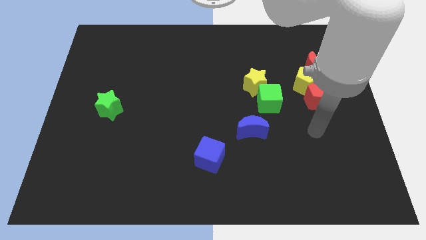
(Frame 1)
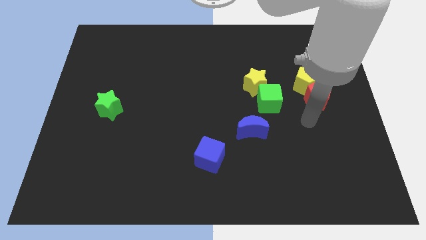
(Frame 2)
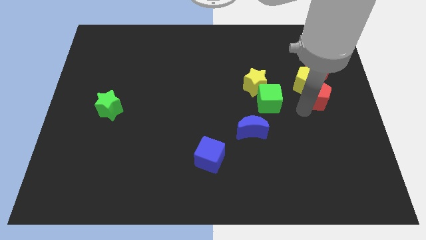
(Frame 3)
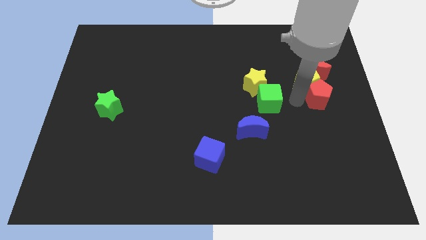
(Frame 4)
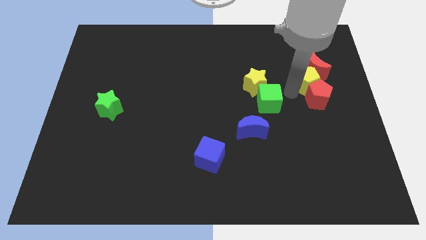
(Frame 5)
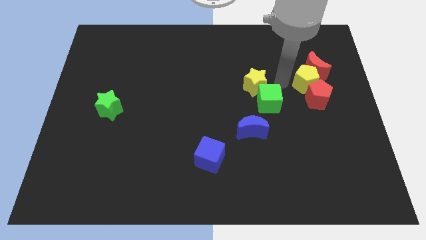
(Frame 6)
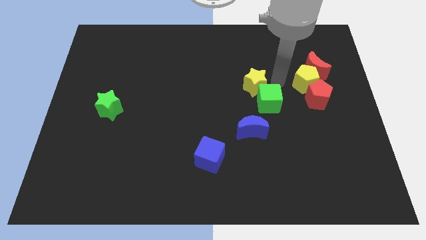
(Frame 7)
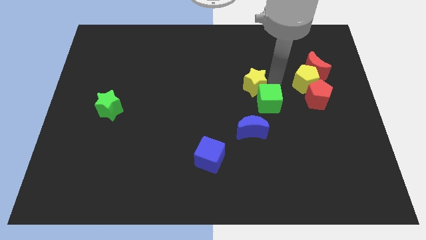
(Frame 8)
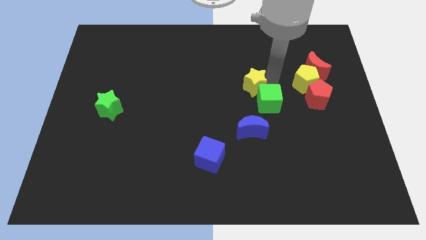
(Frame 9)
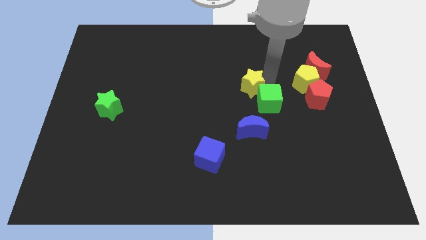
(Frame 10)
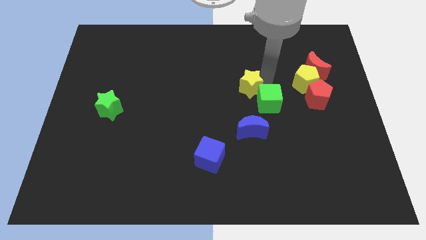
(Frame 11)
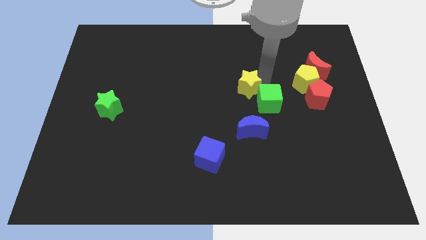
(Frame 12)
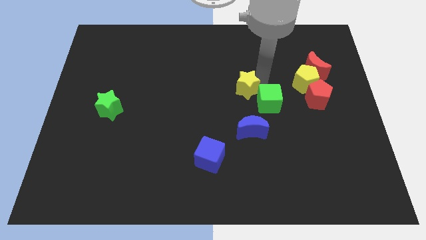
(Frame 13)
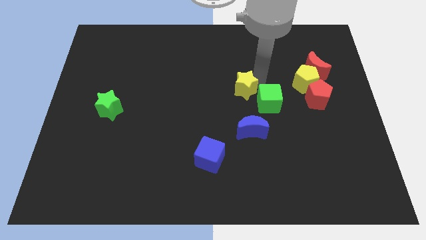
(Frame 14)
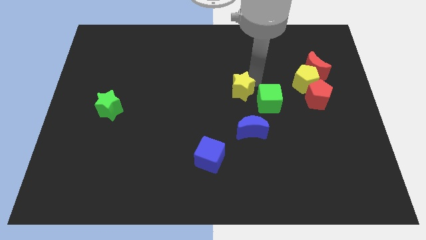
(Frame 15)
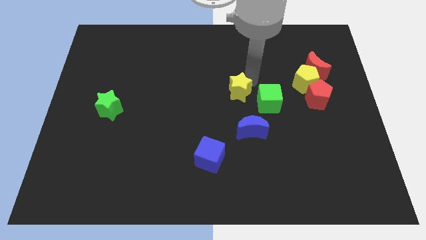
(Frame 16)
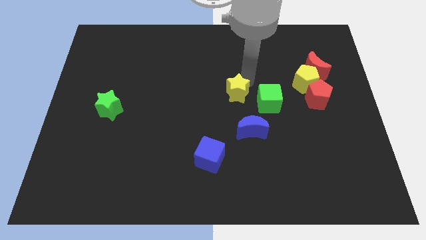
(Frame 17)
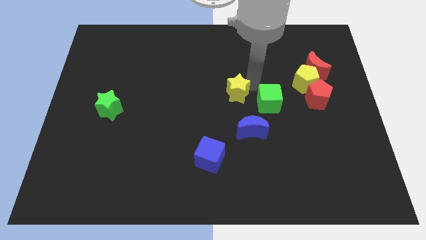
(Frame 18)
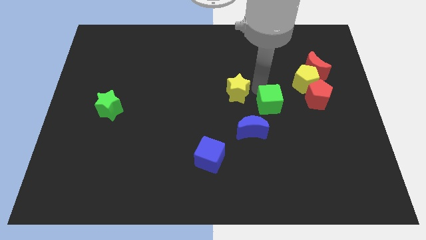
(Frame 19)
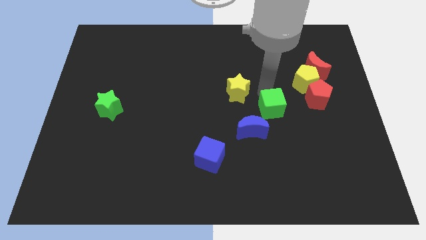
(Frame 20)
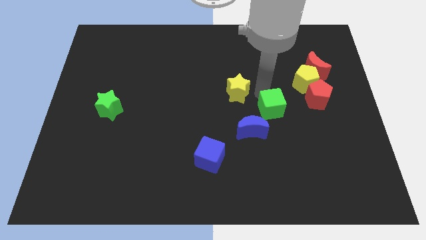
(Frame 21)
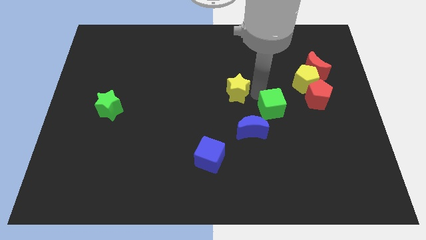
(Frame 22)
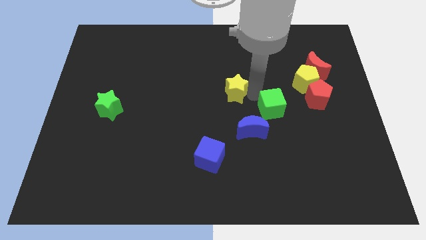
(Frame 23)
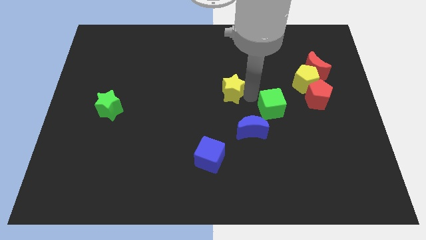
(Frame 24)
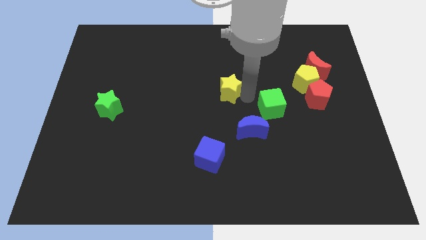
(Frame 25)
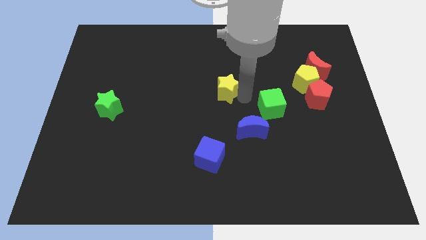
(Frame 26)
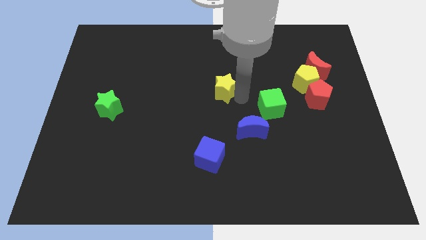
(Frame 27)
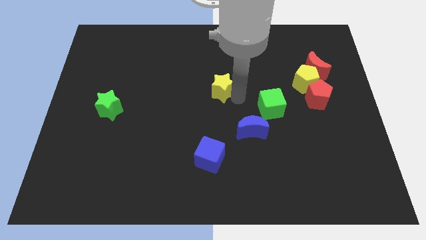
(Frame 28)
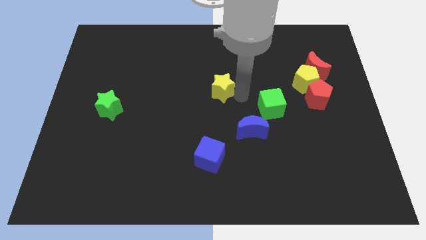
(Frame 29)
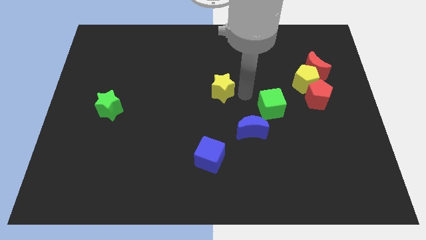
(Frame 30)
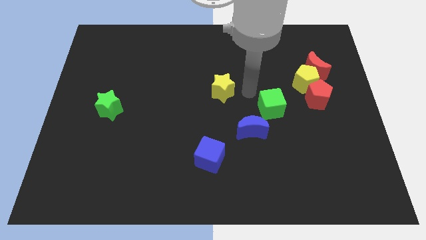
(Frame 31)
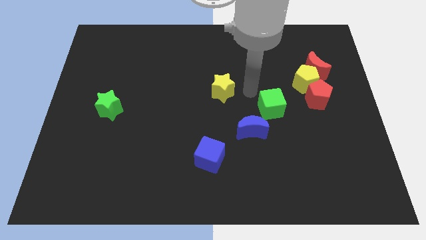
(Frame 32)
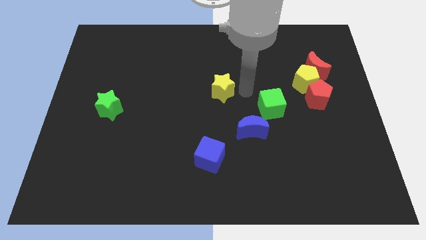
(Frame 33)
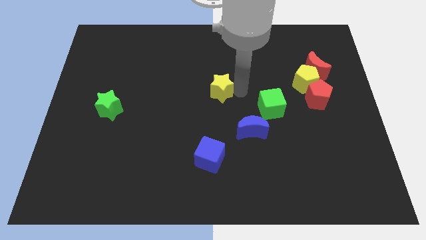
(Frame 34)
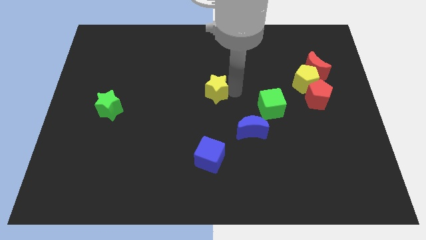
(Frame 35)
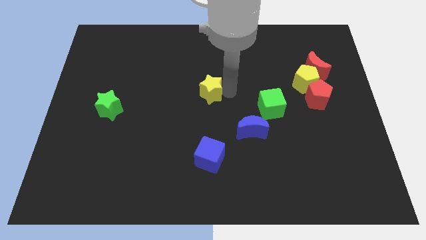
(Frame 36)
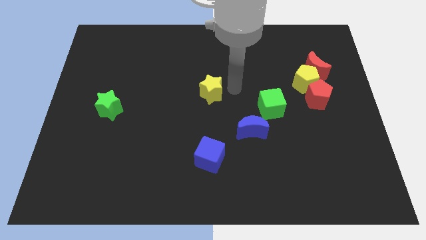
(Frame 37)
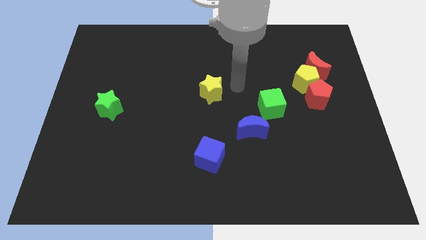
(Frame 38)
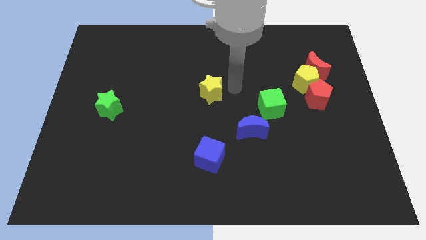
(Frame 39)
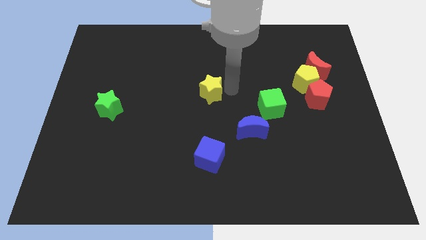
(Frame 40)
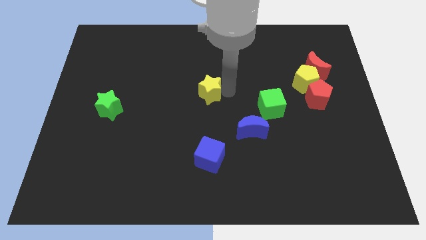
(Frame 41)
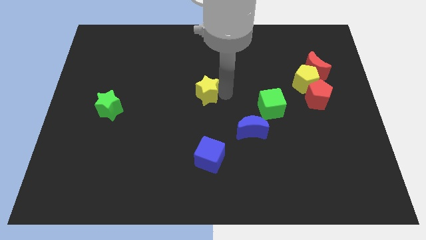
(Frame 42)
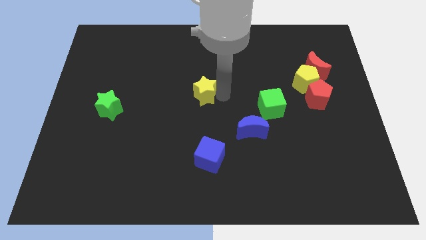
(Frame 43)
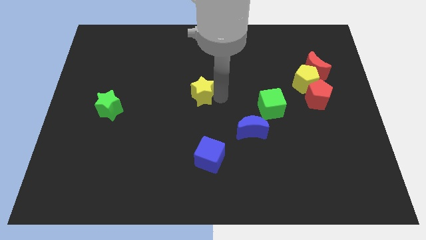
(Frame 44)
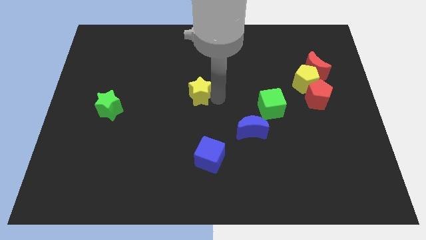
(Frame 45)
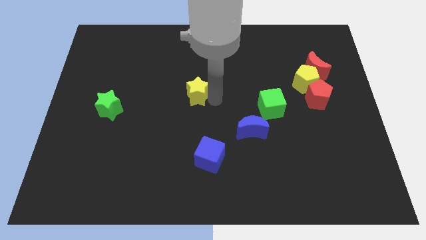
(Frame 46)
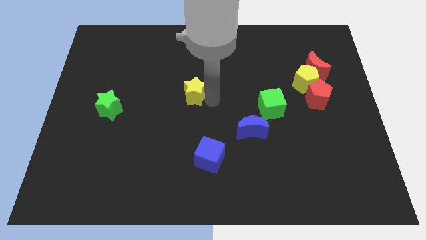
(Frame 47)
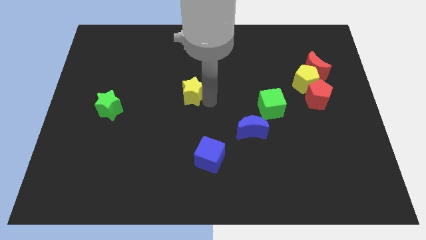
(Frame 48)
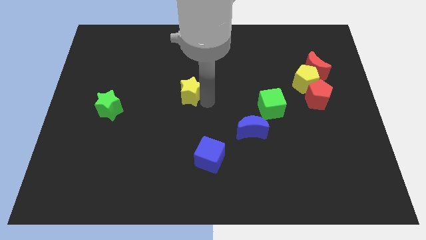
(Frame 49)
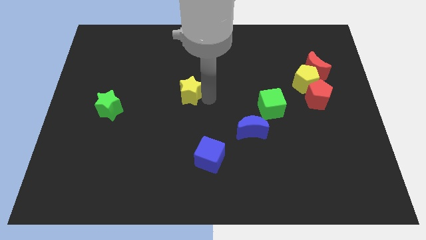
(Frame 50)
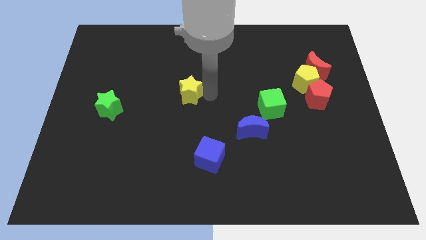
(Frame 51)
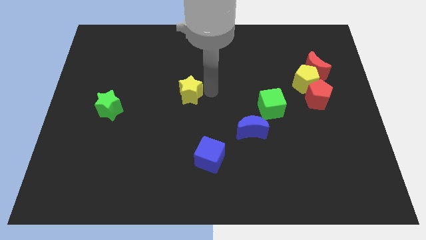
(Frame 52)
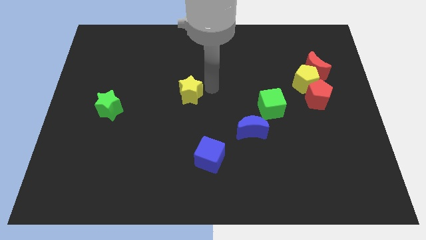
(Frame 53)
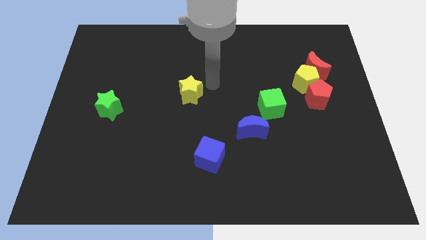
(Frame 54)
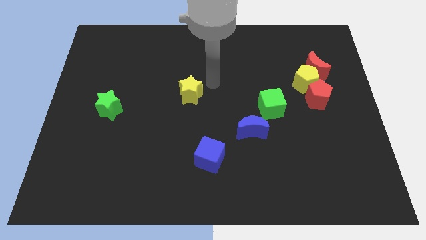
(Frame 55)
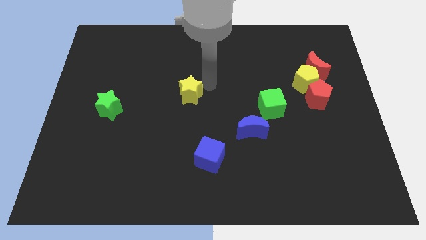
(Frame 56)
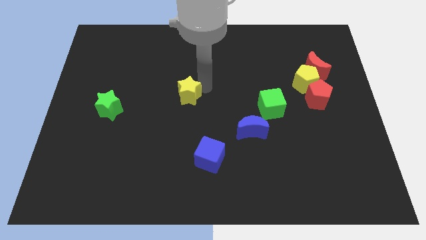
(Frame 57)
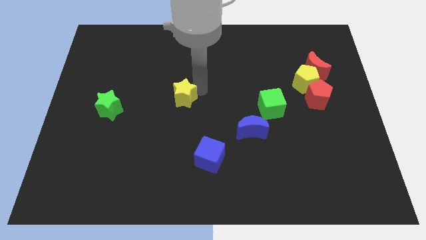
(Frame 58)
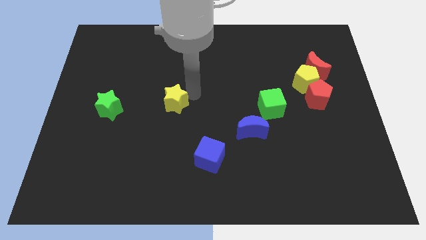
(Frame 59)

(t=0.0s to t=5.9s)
move the yellow star right of the green star

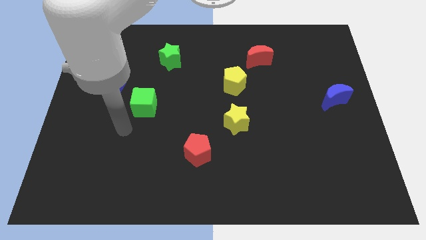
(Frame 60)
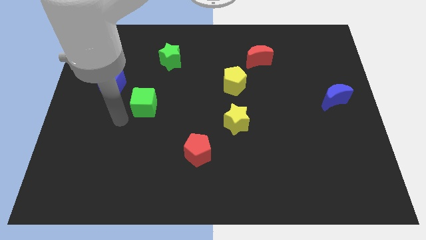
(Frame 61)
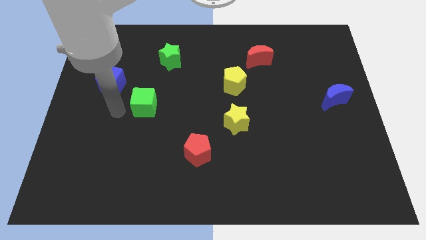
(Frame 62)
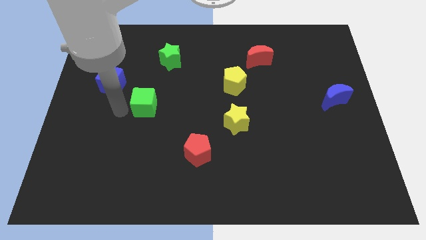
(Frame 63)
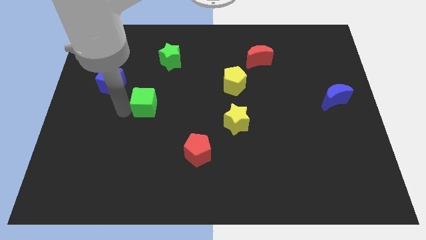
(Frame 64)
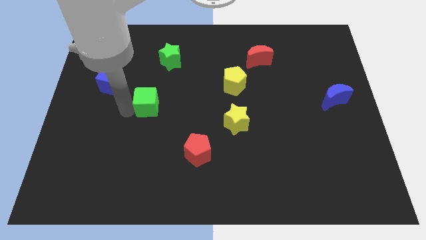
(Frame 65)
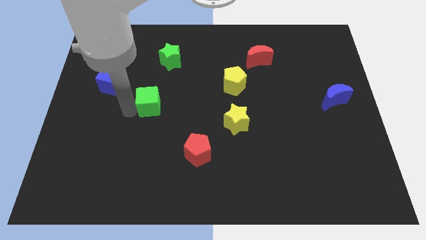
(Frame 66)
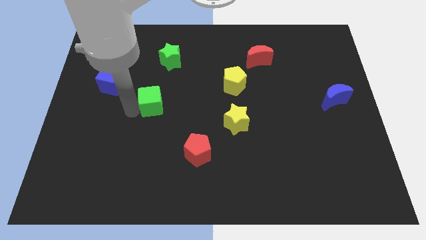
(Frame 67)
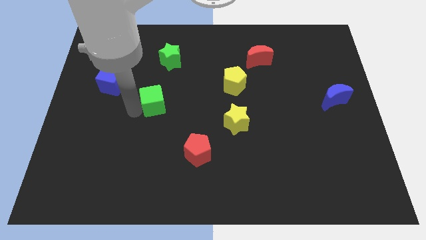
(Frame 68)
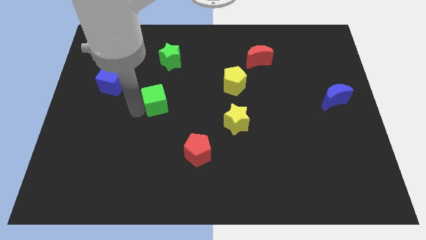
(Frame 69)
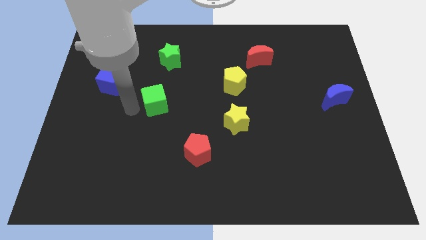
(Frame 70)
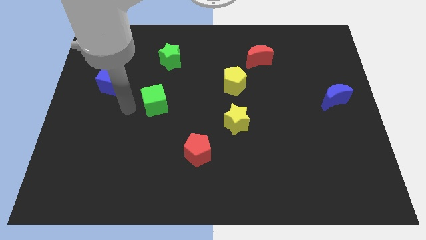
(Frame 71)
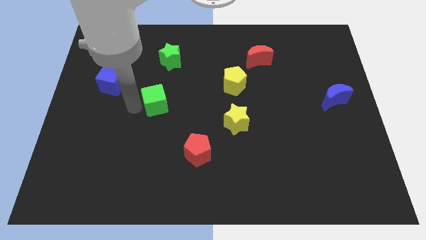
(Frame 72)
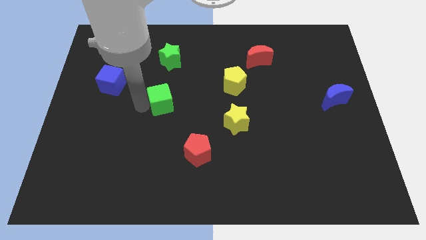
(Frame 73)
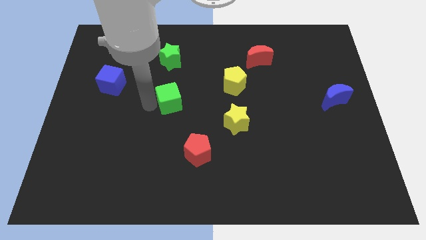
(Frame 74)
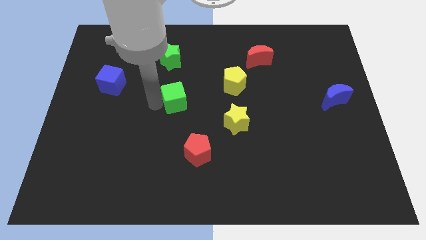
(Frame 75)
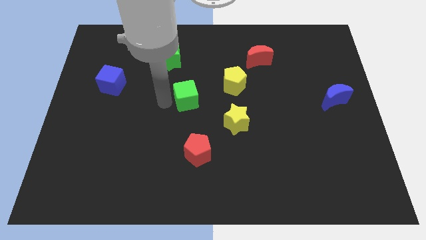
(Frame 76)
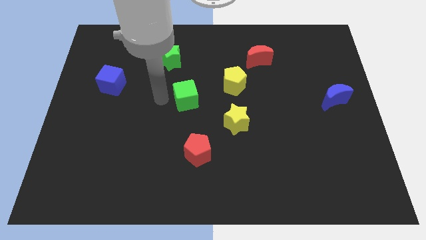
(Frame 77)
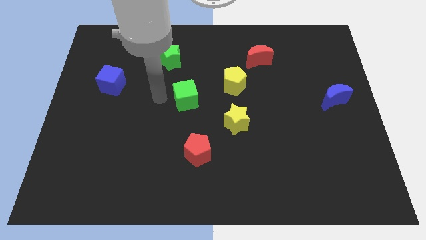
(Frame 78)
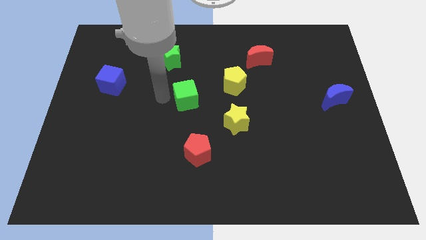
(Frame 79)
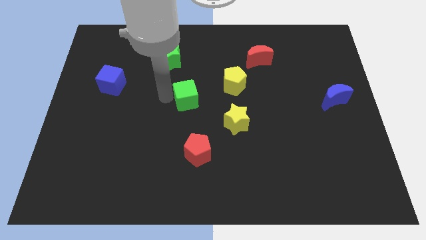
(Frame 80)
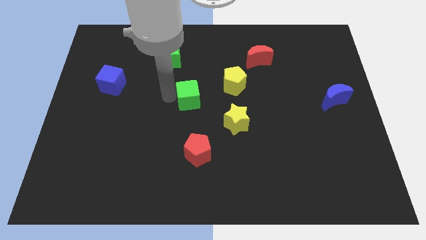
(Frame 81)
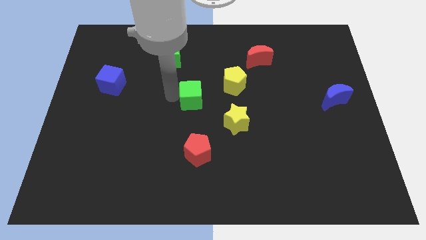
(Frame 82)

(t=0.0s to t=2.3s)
push the green cube to the bottom left side of the yellow pentagon
